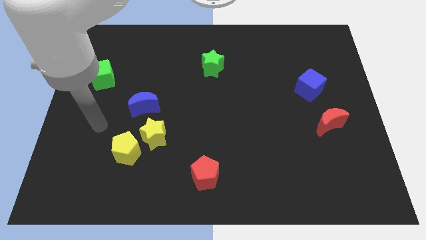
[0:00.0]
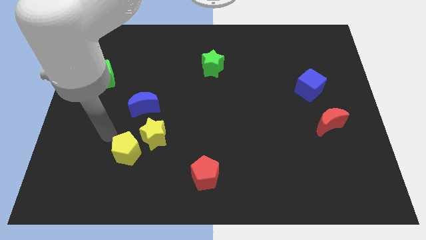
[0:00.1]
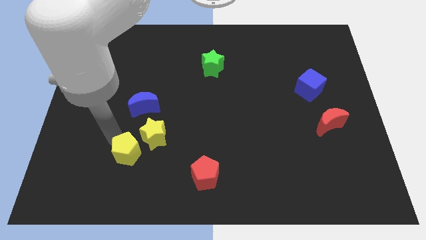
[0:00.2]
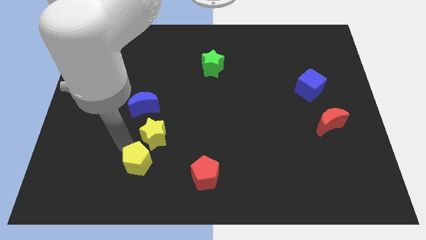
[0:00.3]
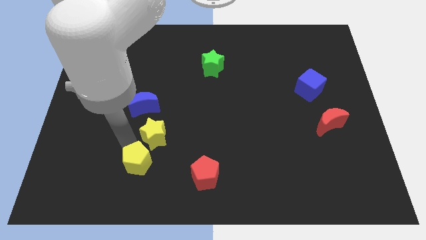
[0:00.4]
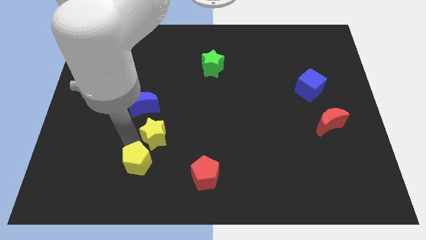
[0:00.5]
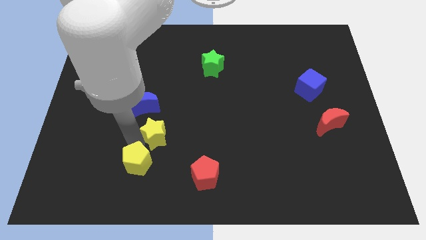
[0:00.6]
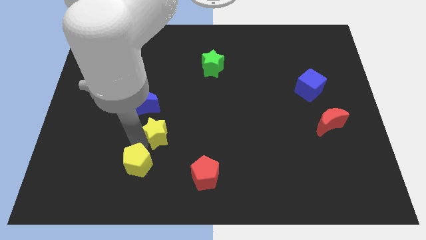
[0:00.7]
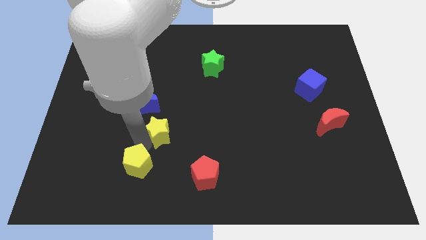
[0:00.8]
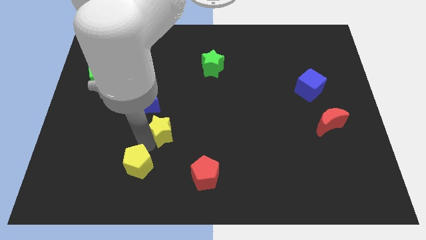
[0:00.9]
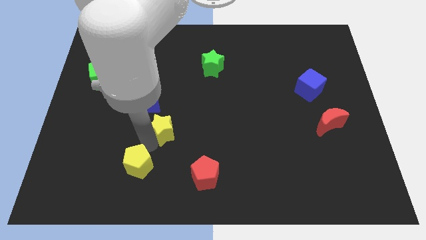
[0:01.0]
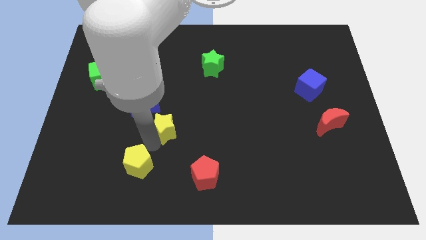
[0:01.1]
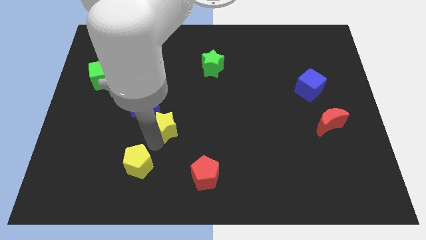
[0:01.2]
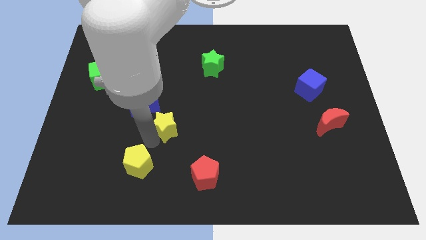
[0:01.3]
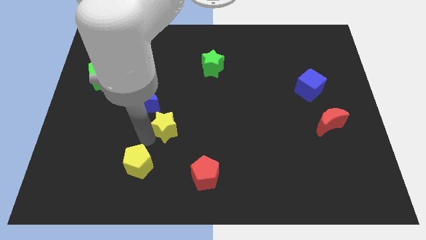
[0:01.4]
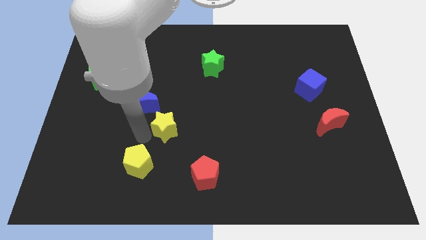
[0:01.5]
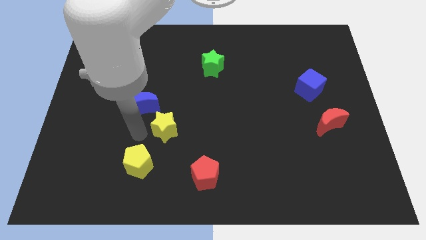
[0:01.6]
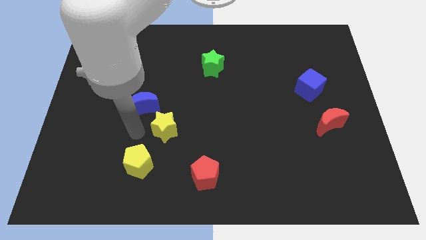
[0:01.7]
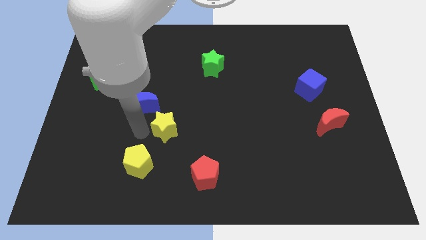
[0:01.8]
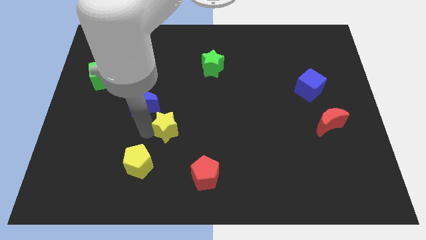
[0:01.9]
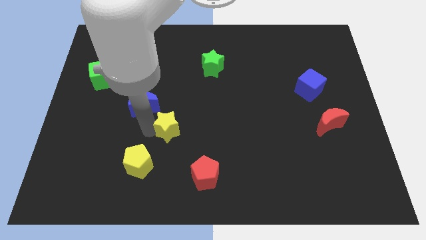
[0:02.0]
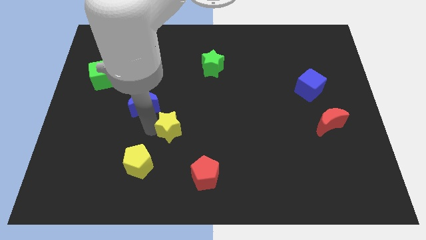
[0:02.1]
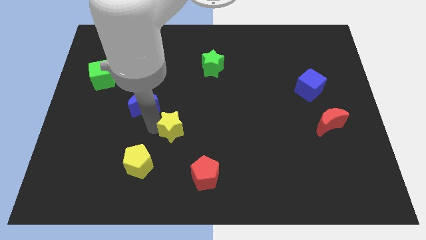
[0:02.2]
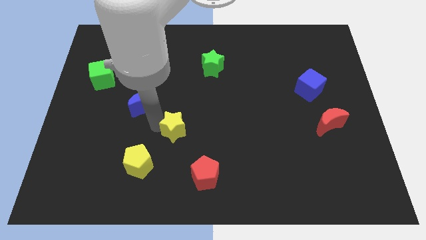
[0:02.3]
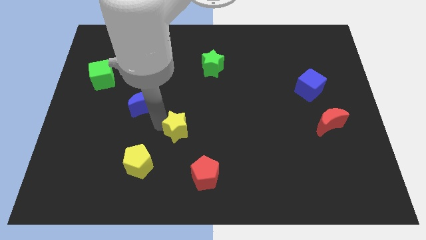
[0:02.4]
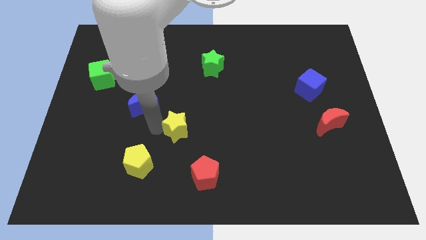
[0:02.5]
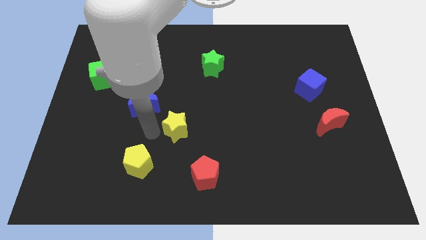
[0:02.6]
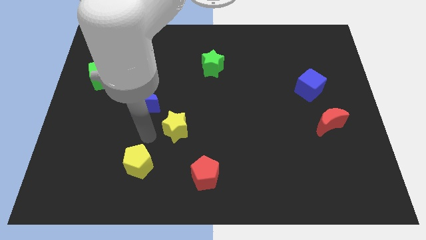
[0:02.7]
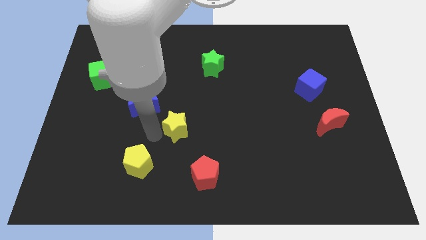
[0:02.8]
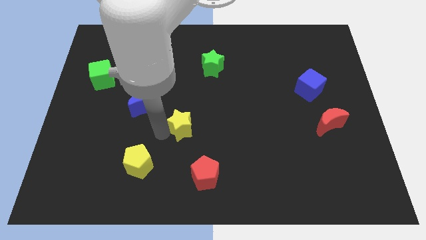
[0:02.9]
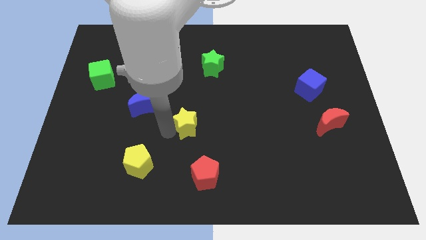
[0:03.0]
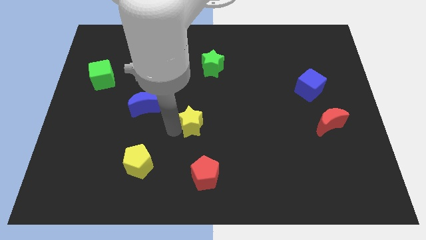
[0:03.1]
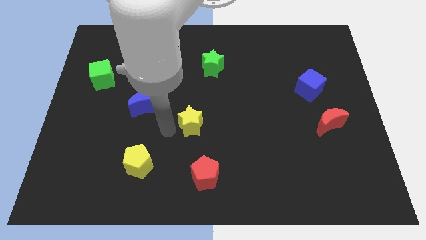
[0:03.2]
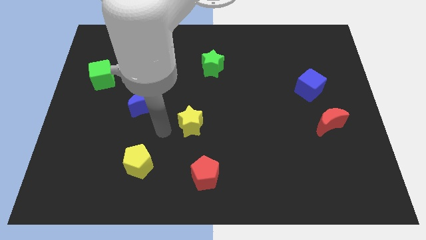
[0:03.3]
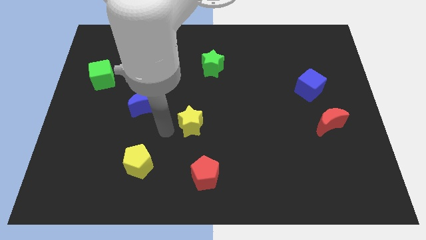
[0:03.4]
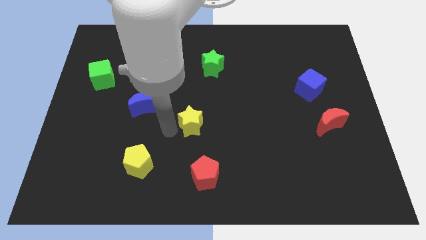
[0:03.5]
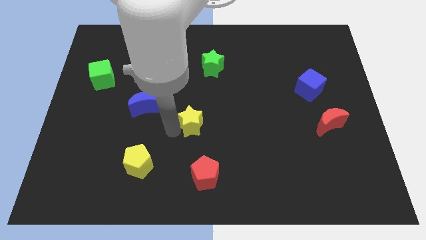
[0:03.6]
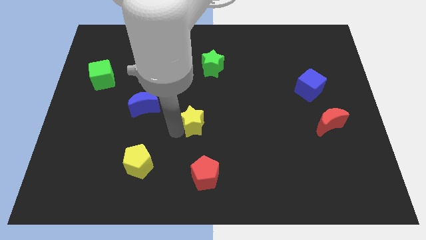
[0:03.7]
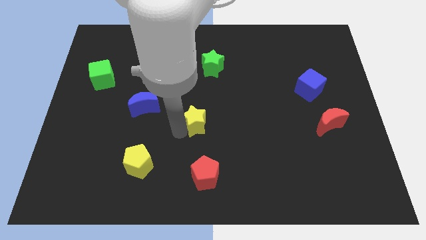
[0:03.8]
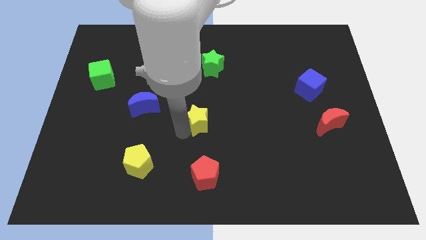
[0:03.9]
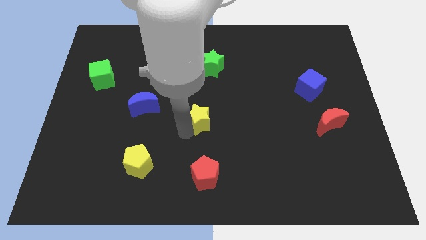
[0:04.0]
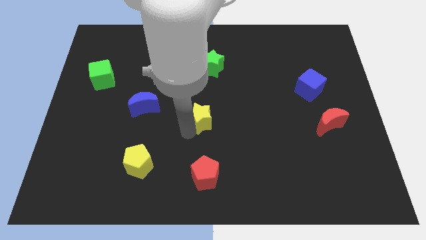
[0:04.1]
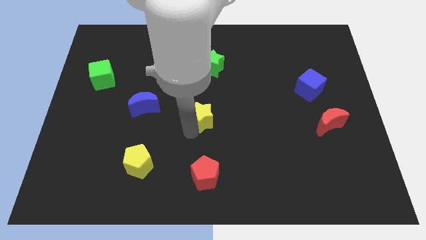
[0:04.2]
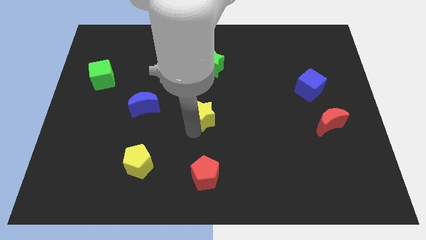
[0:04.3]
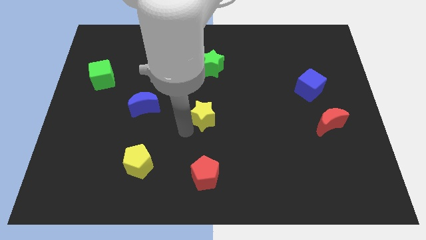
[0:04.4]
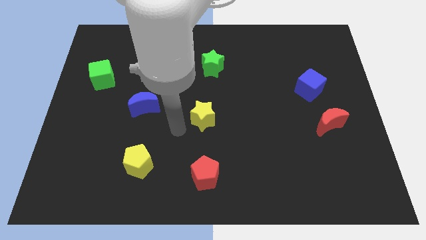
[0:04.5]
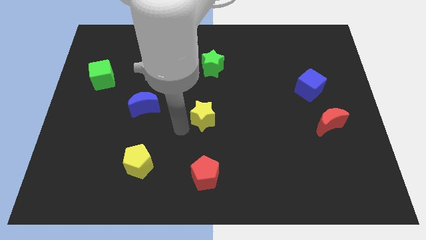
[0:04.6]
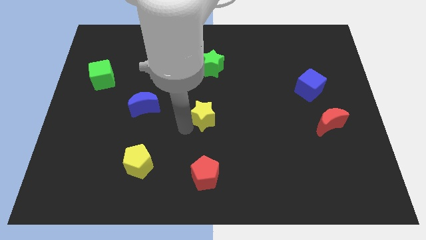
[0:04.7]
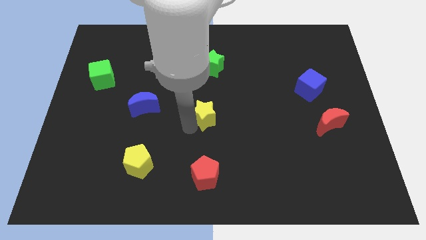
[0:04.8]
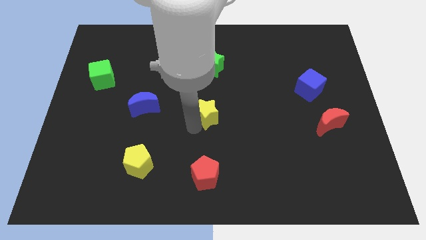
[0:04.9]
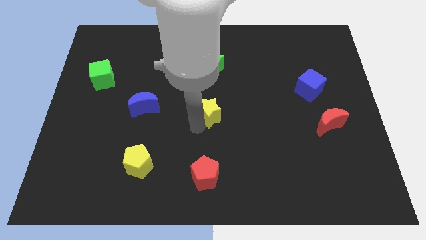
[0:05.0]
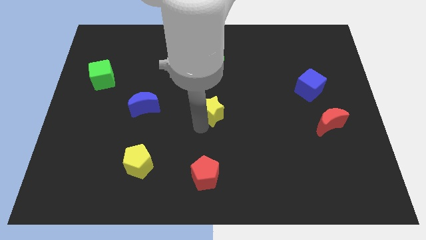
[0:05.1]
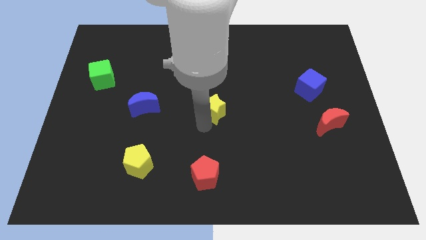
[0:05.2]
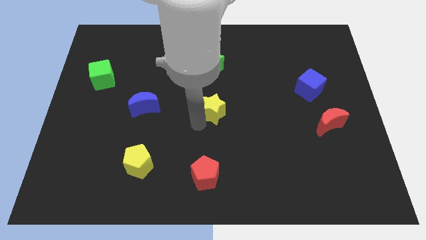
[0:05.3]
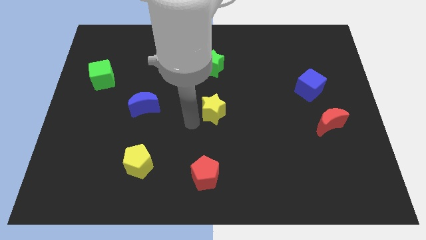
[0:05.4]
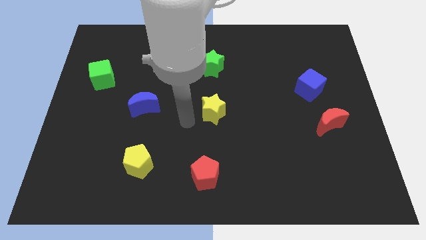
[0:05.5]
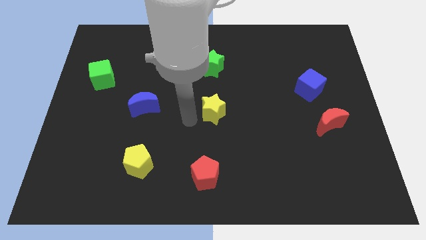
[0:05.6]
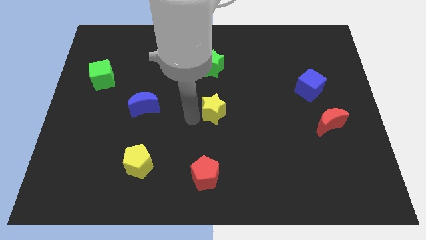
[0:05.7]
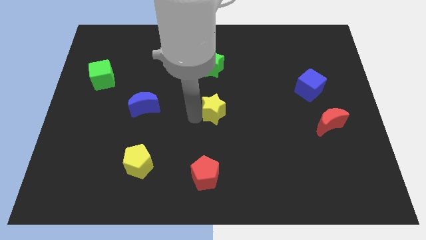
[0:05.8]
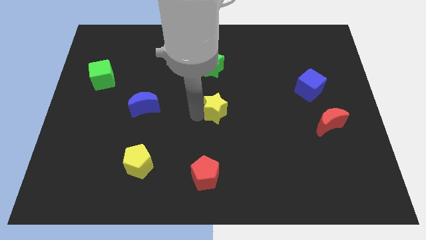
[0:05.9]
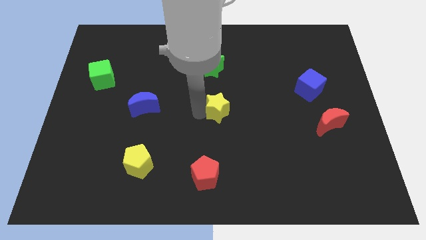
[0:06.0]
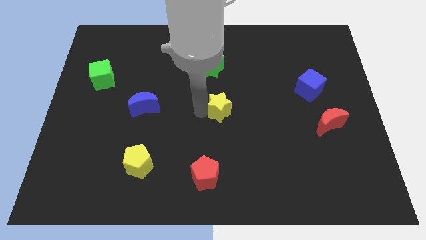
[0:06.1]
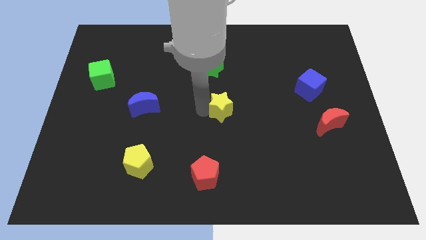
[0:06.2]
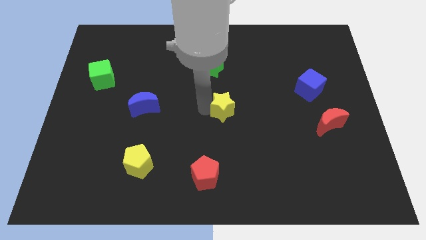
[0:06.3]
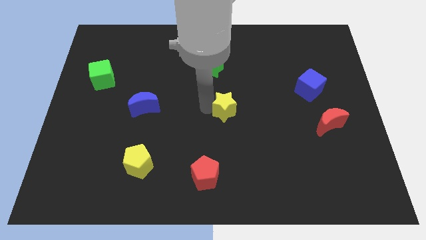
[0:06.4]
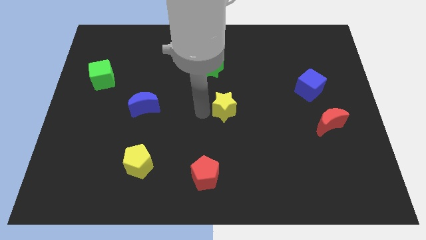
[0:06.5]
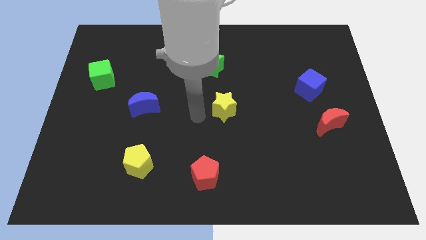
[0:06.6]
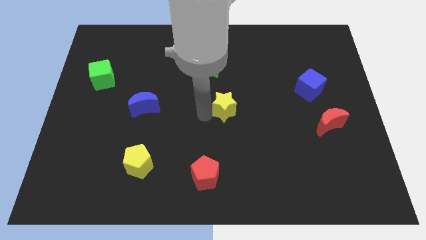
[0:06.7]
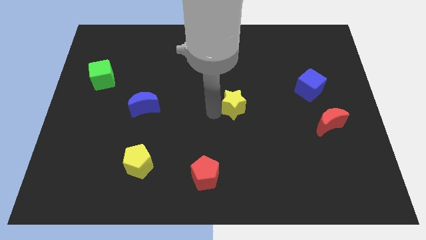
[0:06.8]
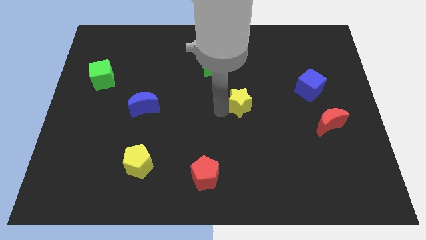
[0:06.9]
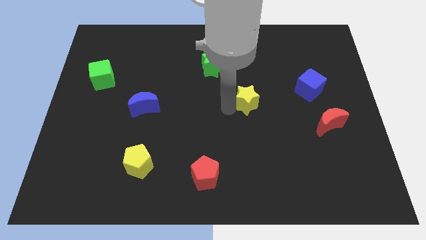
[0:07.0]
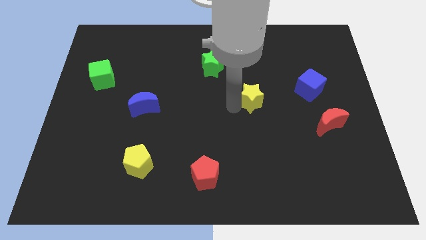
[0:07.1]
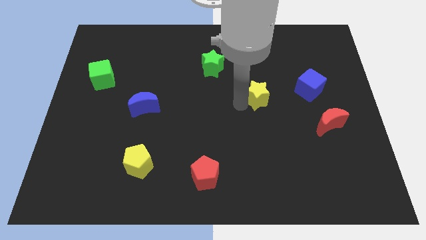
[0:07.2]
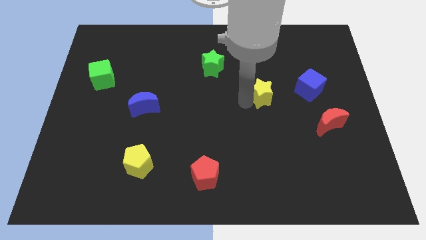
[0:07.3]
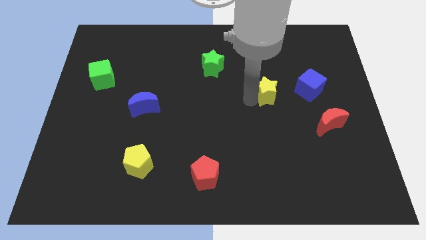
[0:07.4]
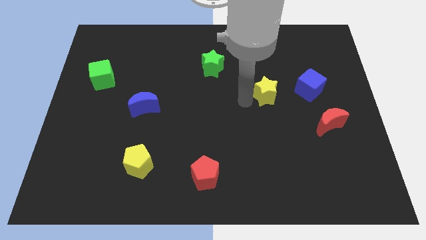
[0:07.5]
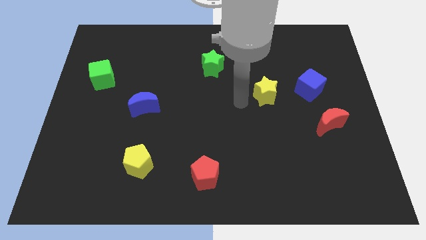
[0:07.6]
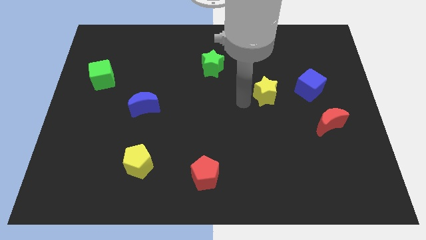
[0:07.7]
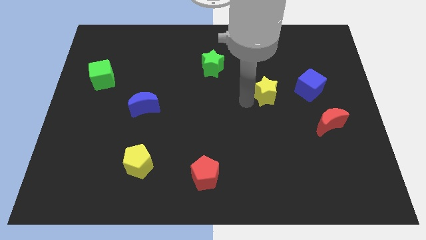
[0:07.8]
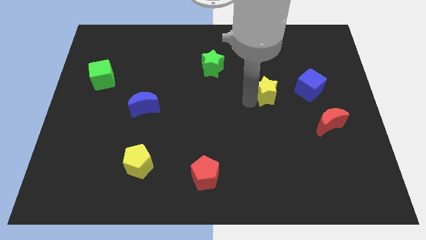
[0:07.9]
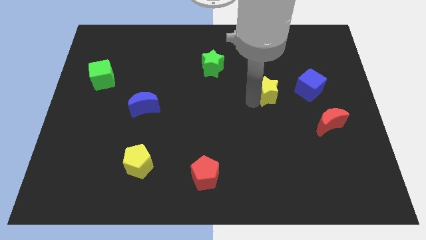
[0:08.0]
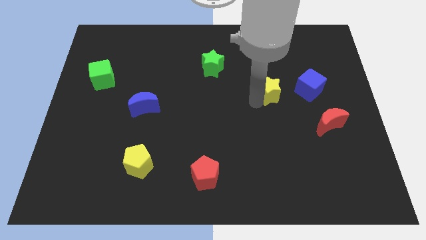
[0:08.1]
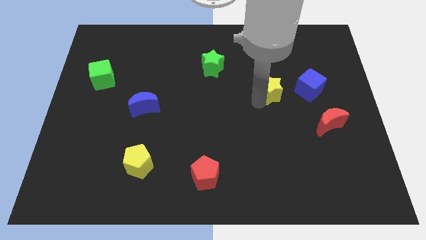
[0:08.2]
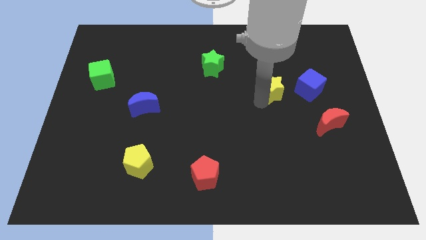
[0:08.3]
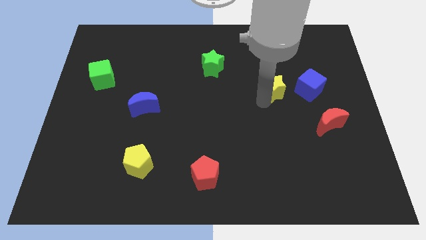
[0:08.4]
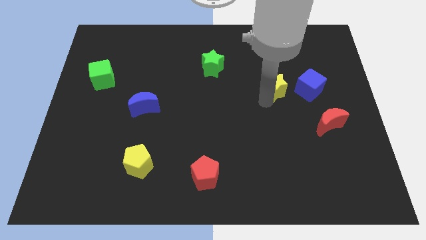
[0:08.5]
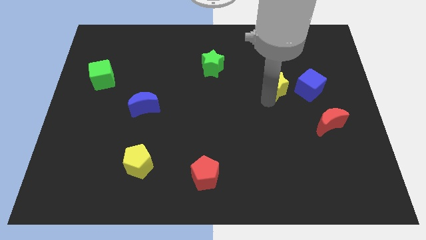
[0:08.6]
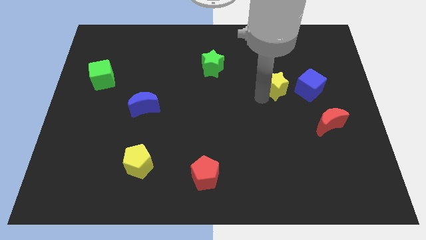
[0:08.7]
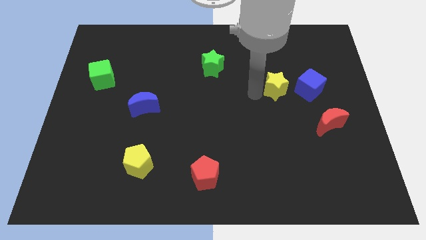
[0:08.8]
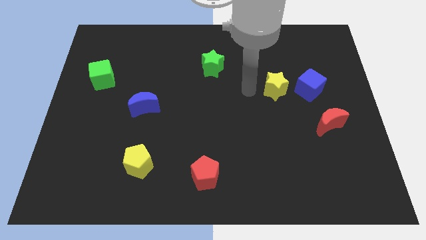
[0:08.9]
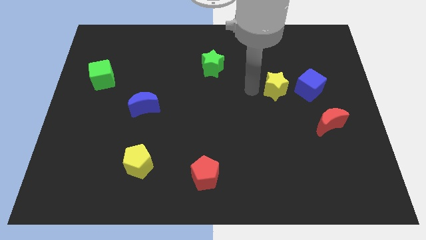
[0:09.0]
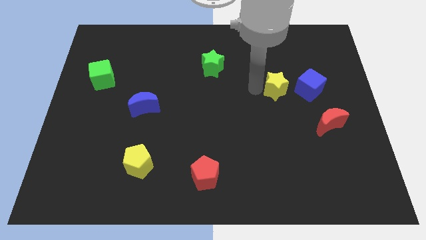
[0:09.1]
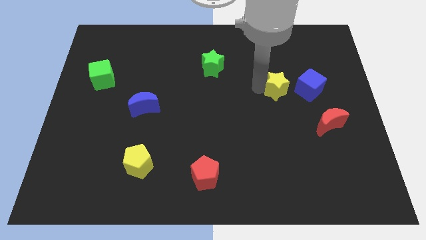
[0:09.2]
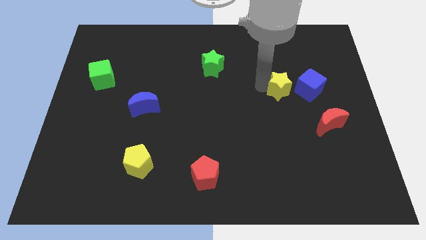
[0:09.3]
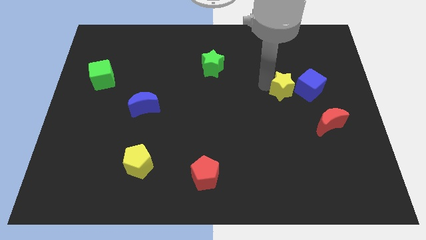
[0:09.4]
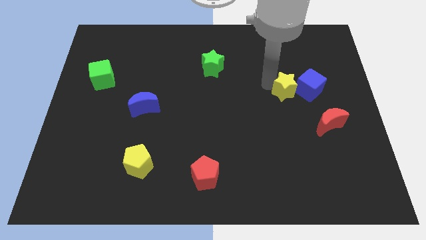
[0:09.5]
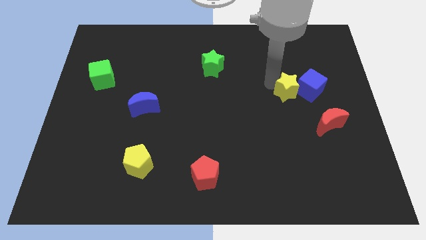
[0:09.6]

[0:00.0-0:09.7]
move the yellow star close to the blue cube
